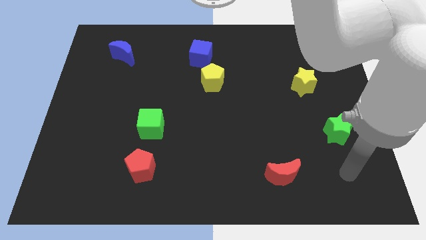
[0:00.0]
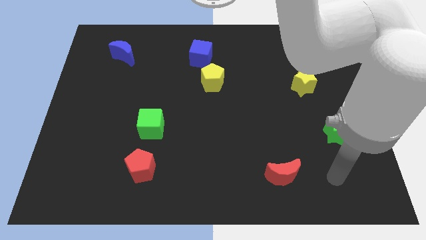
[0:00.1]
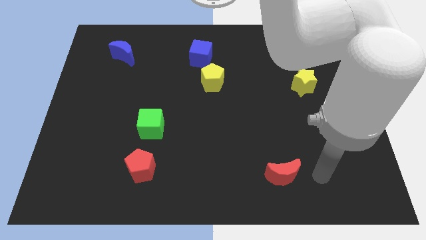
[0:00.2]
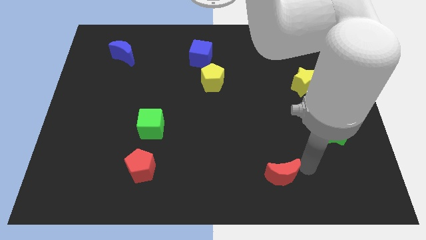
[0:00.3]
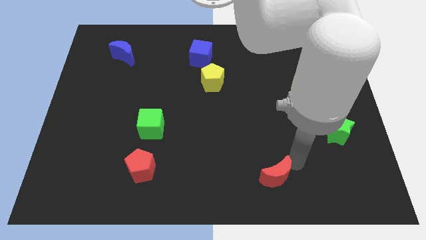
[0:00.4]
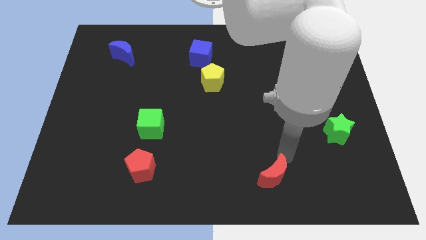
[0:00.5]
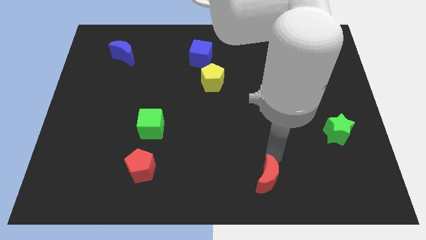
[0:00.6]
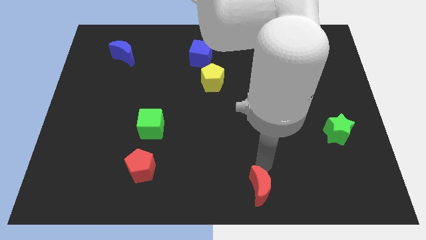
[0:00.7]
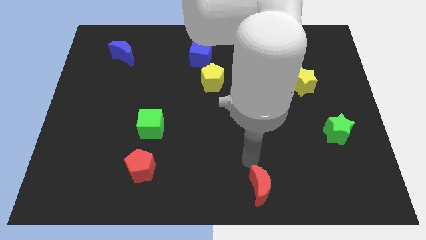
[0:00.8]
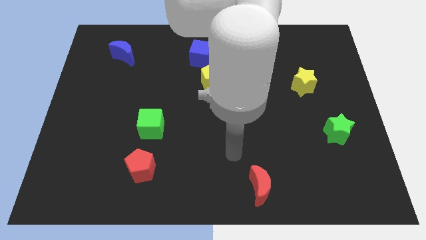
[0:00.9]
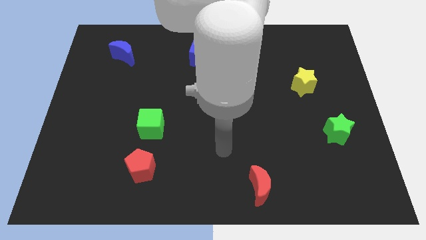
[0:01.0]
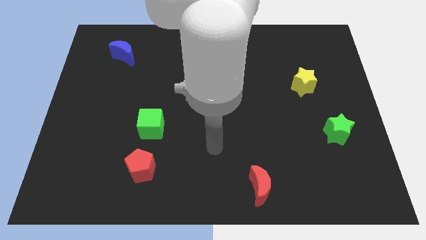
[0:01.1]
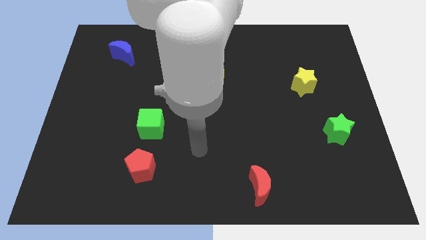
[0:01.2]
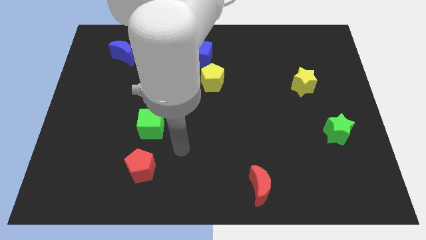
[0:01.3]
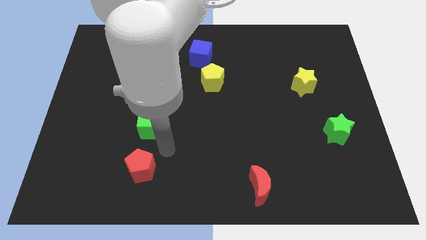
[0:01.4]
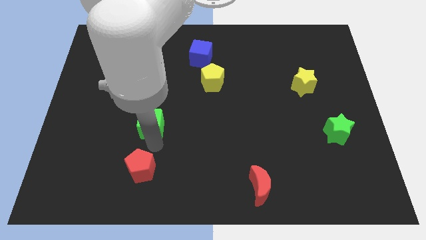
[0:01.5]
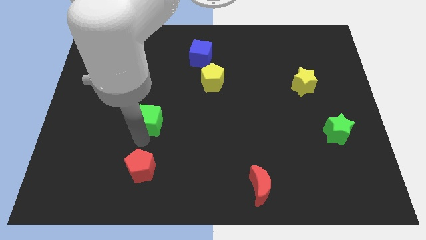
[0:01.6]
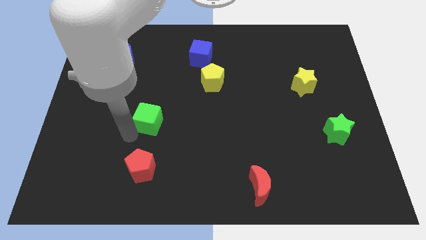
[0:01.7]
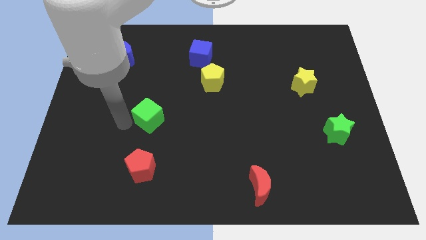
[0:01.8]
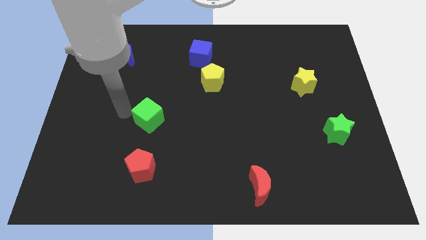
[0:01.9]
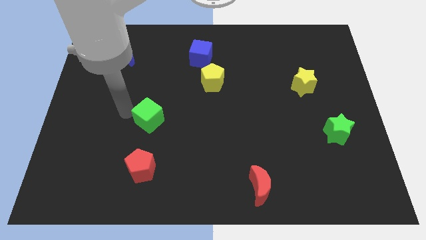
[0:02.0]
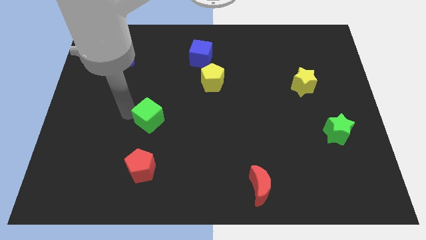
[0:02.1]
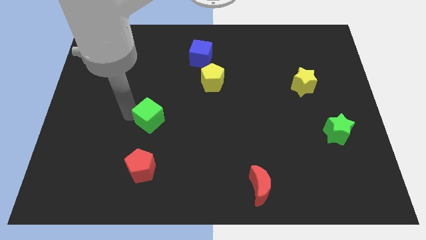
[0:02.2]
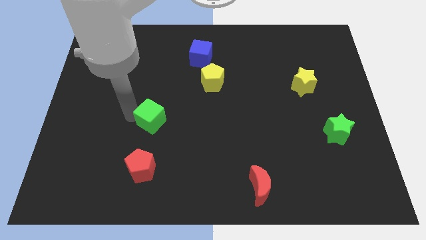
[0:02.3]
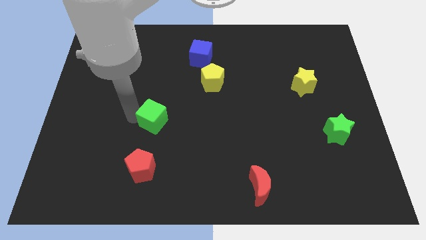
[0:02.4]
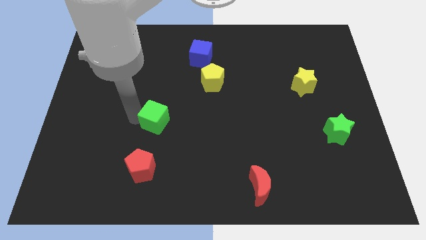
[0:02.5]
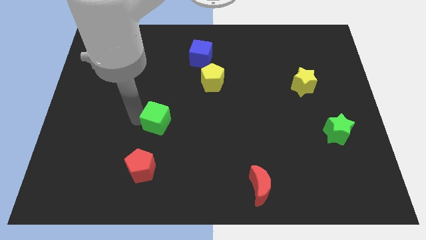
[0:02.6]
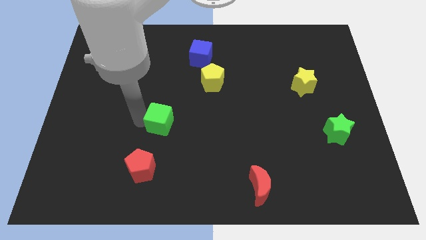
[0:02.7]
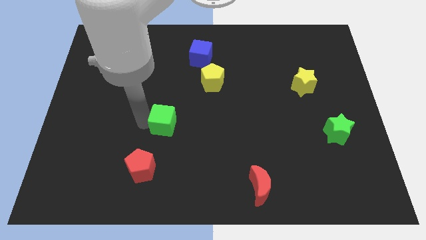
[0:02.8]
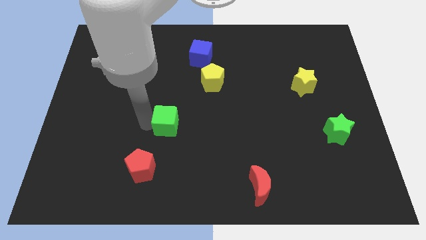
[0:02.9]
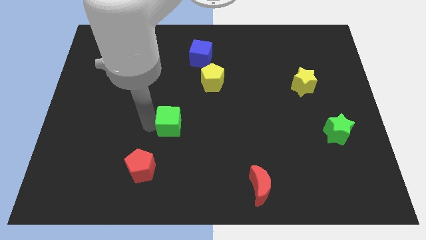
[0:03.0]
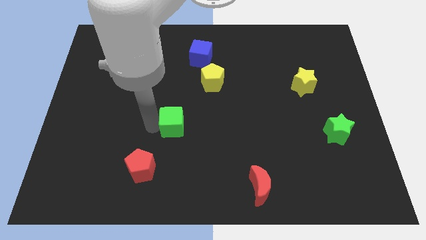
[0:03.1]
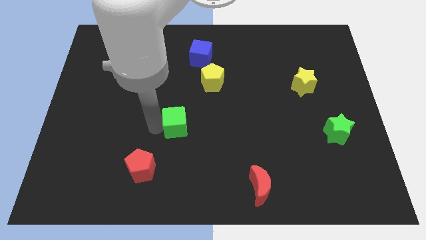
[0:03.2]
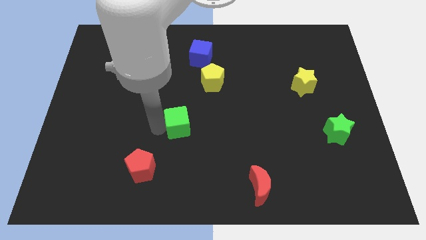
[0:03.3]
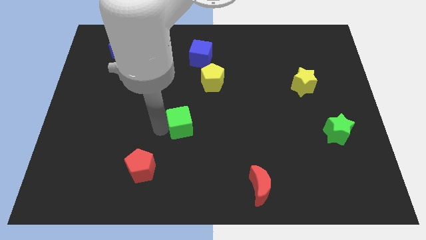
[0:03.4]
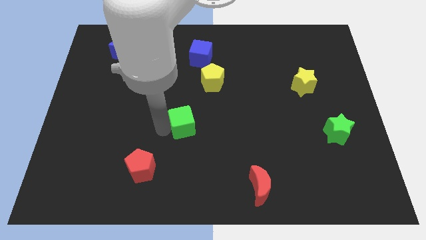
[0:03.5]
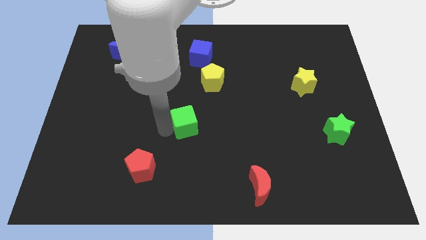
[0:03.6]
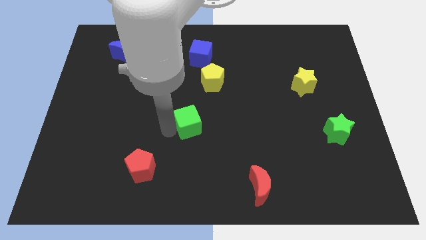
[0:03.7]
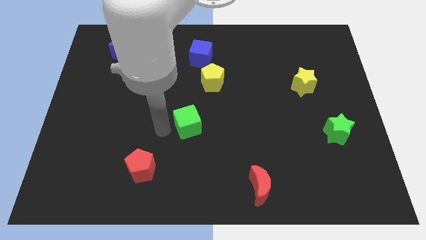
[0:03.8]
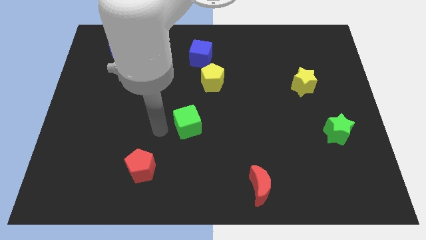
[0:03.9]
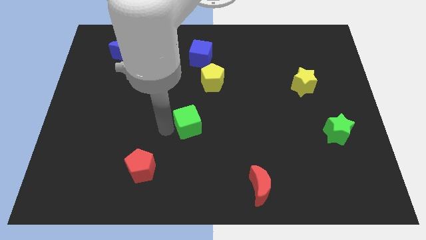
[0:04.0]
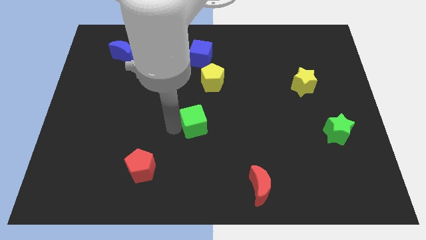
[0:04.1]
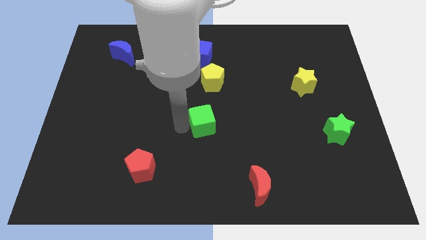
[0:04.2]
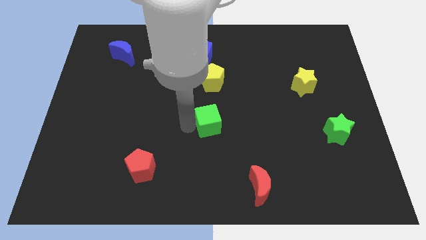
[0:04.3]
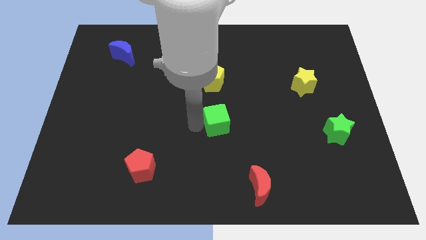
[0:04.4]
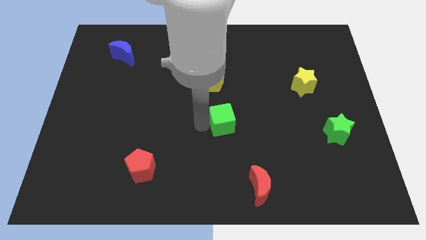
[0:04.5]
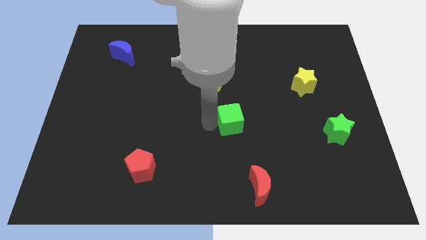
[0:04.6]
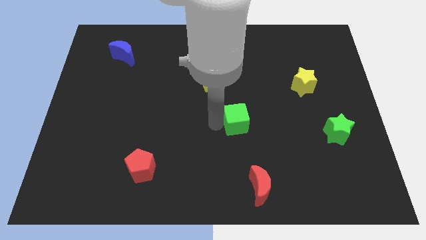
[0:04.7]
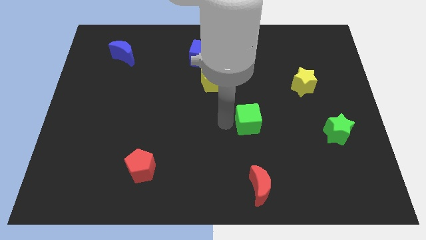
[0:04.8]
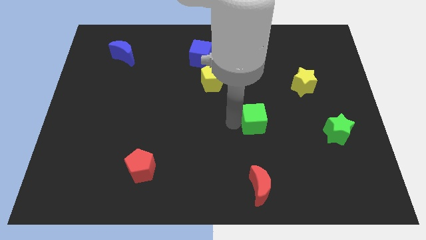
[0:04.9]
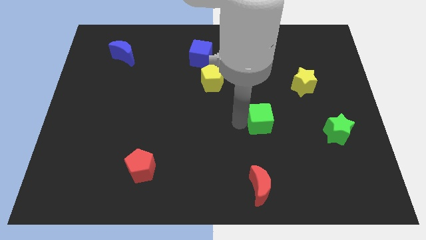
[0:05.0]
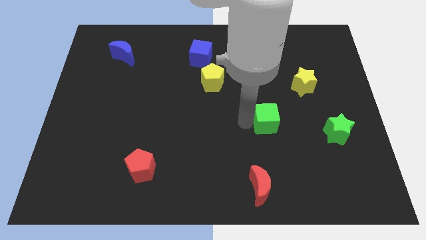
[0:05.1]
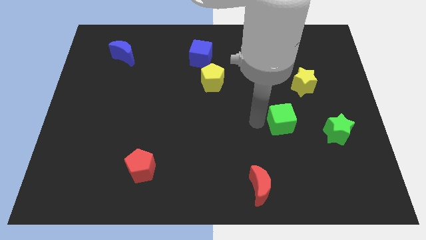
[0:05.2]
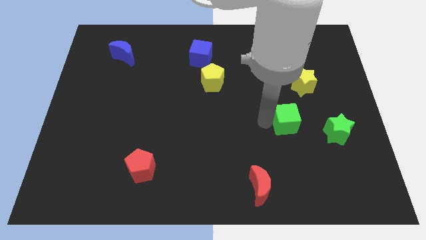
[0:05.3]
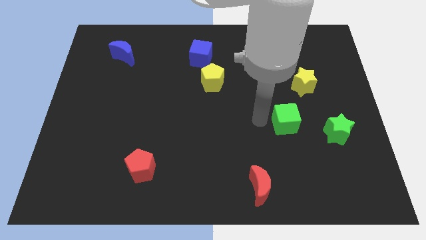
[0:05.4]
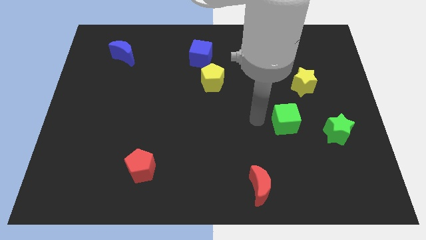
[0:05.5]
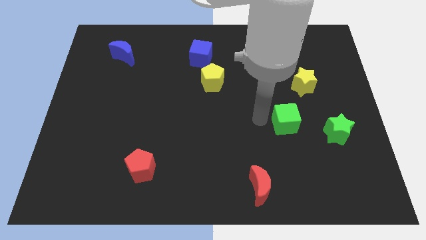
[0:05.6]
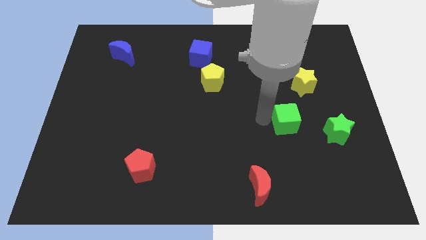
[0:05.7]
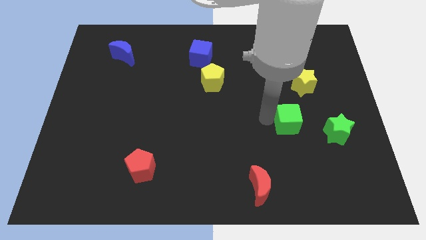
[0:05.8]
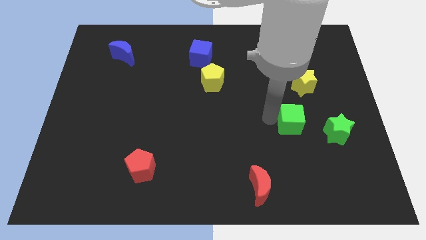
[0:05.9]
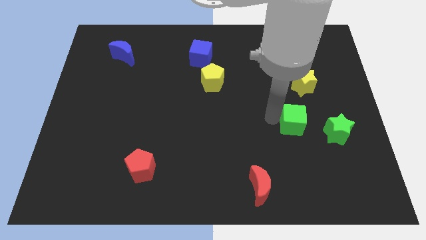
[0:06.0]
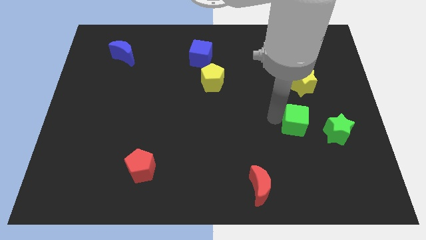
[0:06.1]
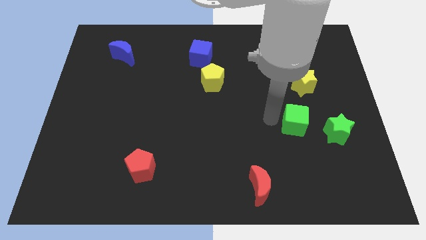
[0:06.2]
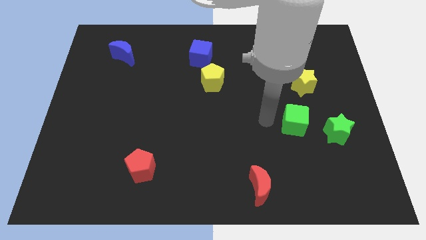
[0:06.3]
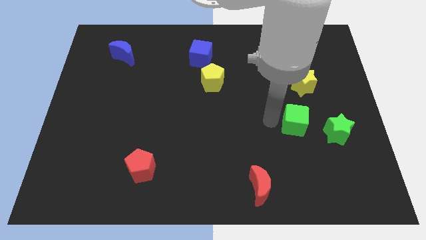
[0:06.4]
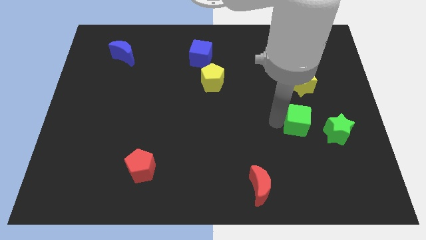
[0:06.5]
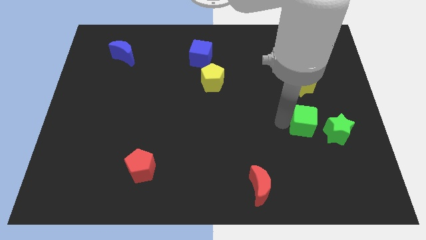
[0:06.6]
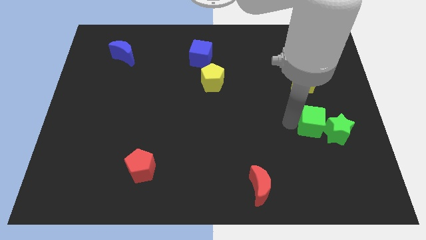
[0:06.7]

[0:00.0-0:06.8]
move the green cube next to the green star
